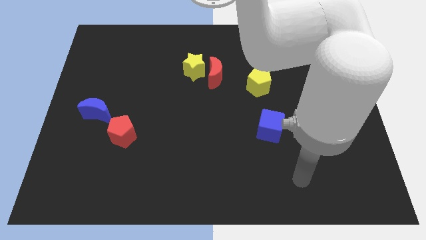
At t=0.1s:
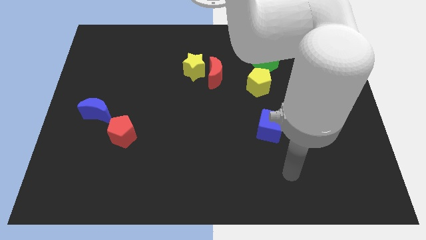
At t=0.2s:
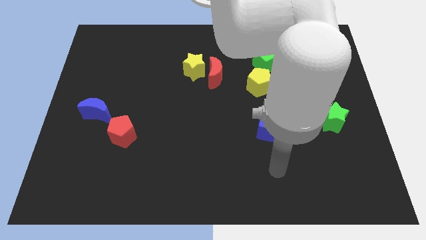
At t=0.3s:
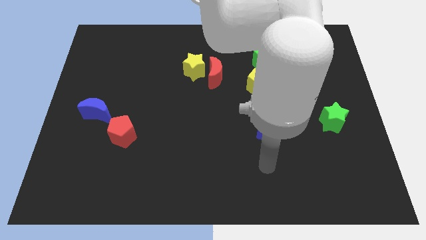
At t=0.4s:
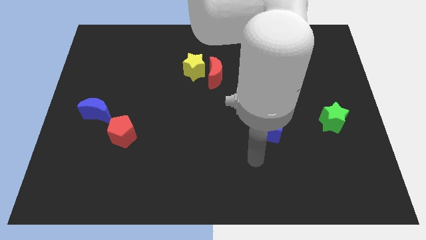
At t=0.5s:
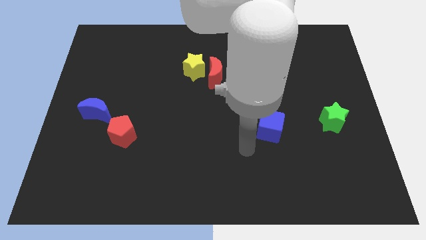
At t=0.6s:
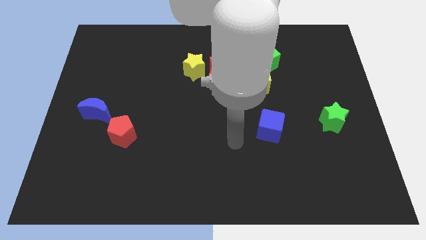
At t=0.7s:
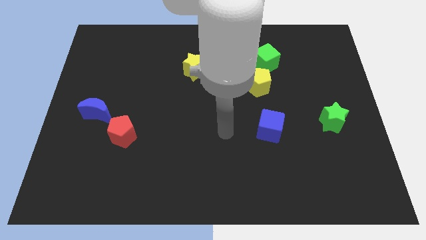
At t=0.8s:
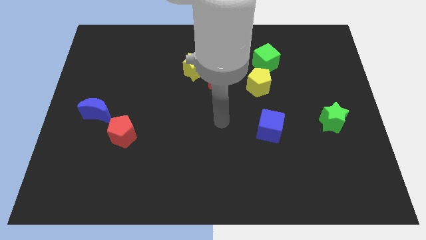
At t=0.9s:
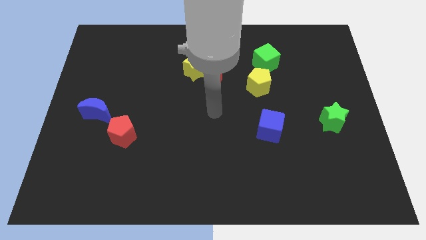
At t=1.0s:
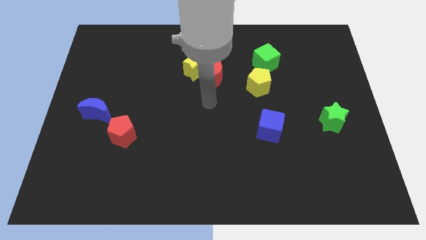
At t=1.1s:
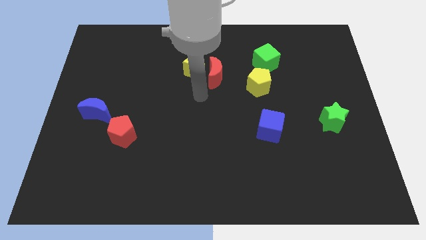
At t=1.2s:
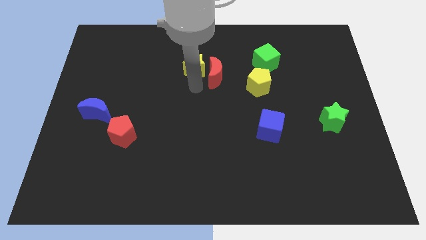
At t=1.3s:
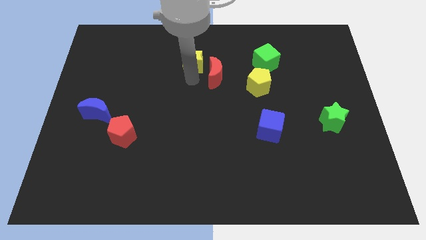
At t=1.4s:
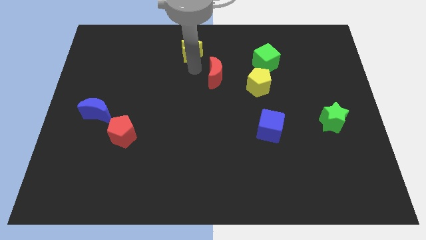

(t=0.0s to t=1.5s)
pull the red moon apart from the yellow star

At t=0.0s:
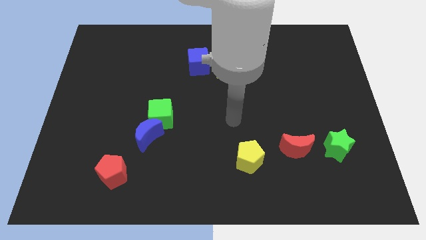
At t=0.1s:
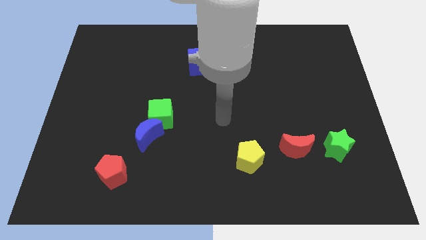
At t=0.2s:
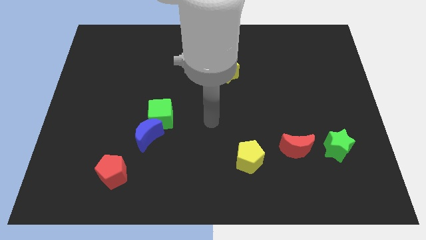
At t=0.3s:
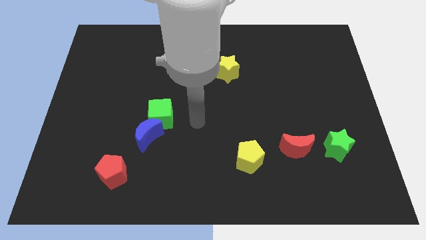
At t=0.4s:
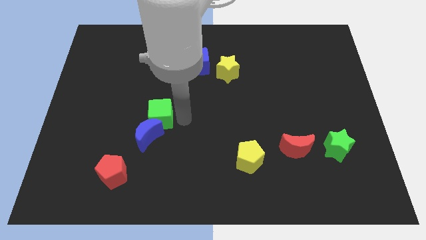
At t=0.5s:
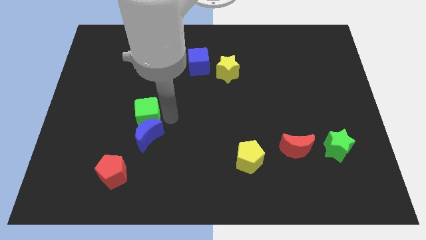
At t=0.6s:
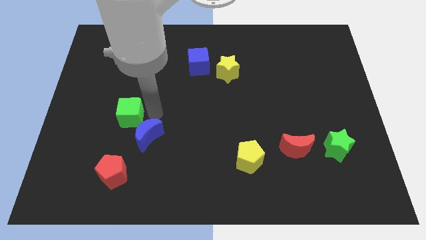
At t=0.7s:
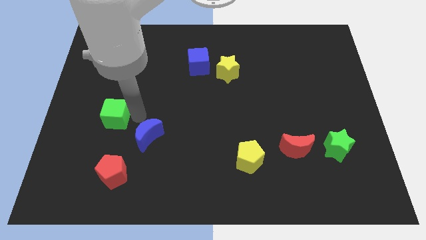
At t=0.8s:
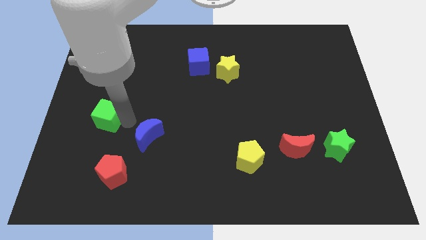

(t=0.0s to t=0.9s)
separate the blue moon from the green cube

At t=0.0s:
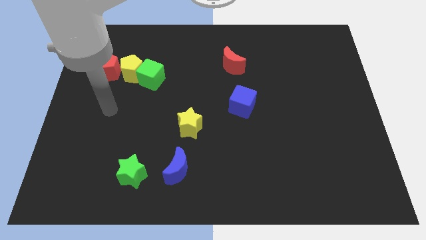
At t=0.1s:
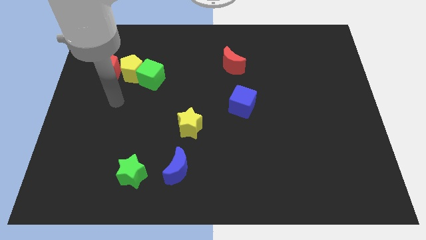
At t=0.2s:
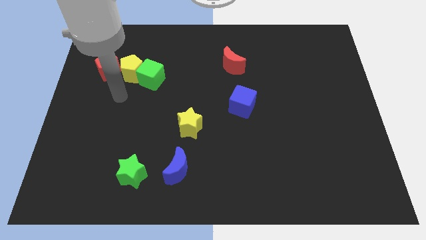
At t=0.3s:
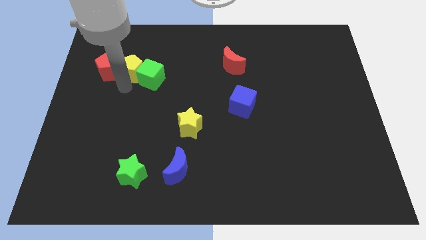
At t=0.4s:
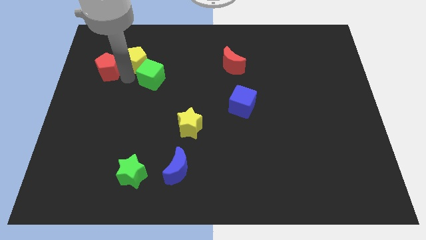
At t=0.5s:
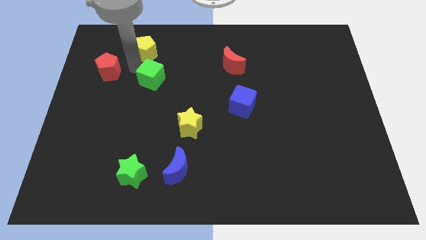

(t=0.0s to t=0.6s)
separate the green cube from the yellow pentagon

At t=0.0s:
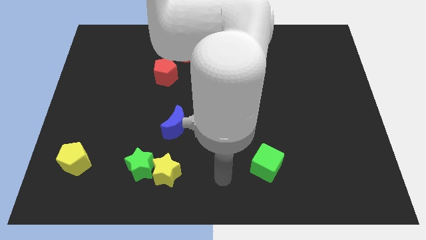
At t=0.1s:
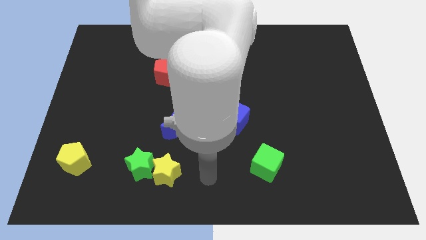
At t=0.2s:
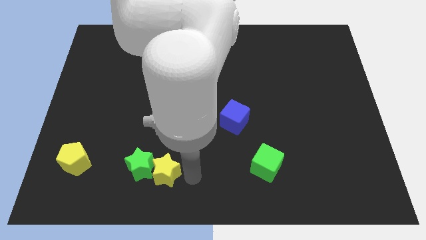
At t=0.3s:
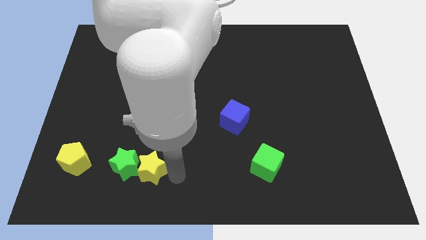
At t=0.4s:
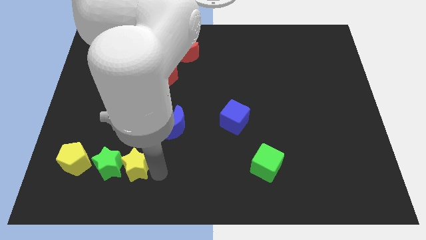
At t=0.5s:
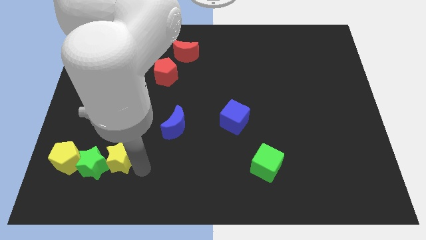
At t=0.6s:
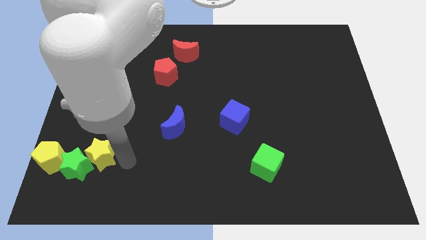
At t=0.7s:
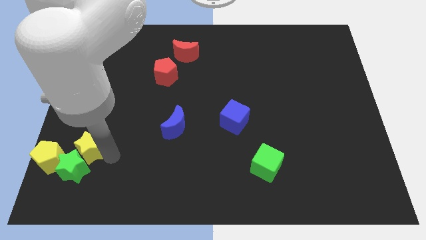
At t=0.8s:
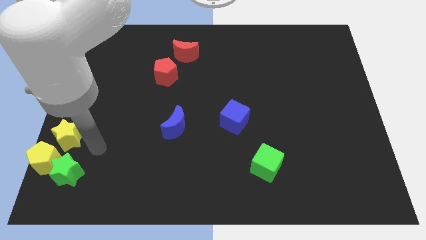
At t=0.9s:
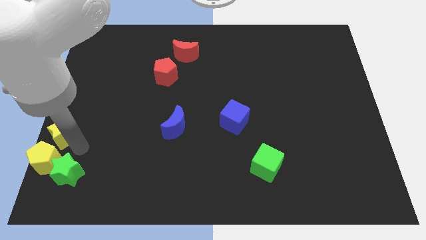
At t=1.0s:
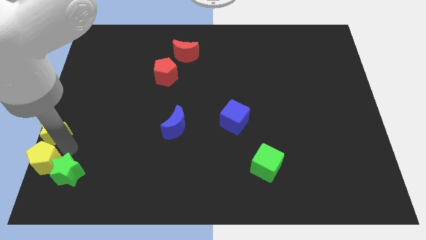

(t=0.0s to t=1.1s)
separate the green star from the yellow star

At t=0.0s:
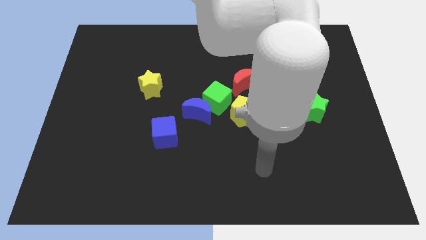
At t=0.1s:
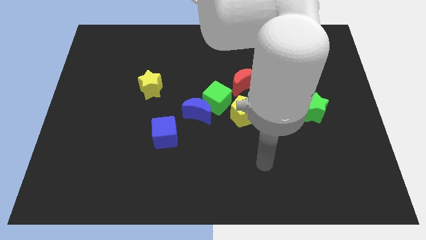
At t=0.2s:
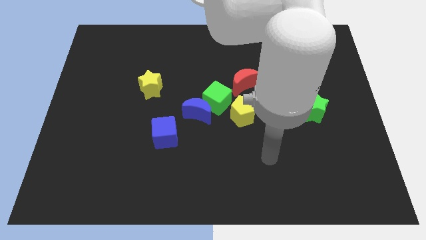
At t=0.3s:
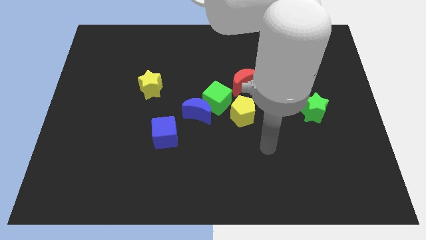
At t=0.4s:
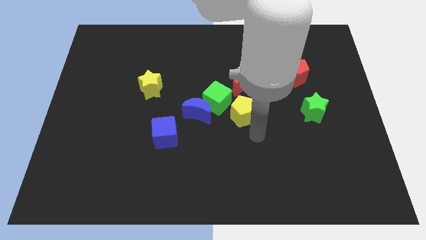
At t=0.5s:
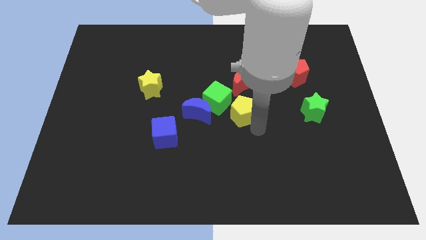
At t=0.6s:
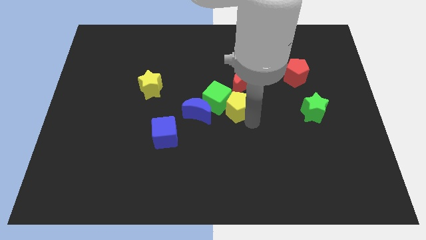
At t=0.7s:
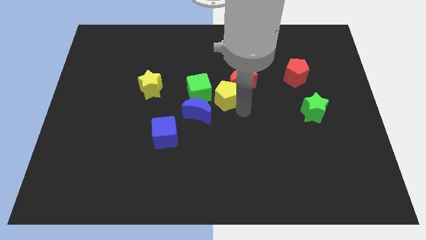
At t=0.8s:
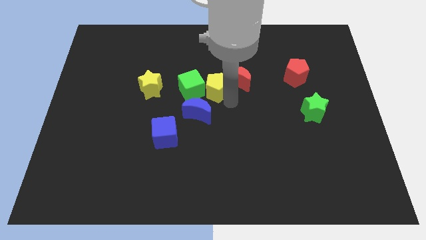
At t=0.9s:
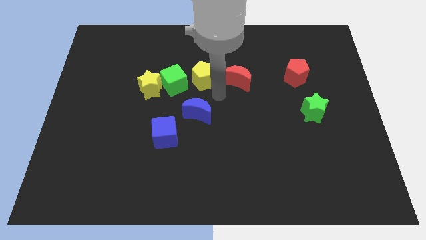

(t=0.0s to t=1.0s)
pull the green cube apart from the group

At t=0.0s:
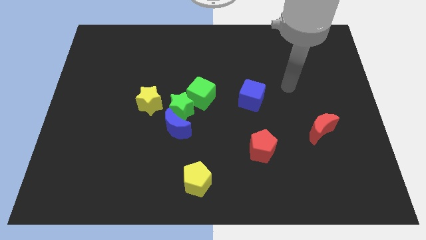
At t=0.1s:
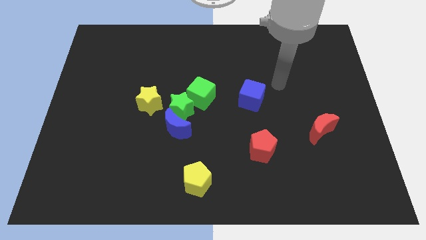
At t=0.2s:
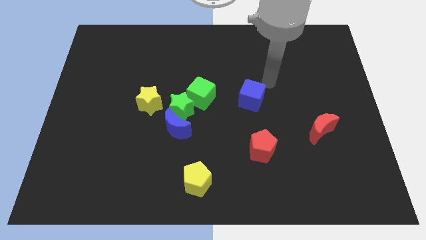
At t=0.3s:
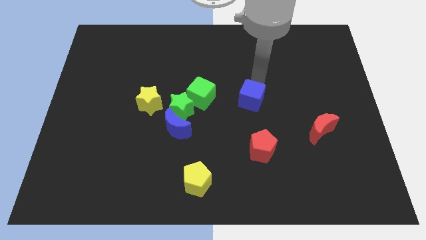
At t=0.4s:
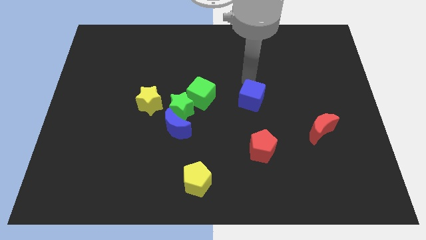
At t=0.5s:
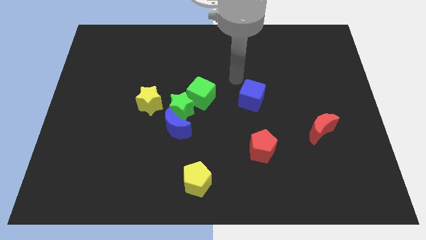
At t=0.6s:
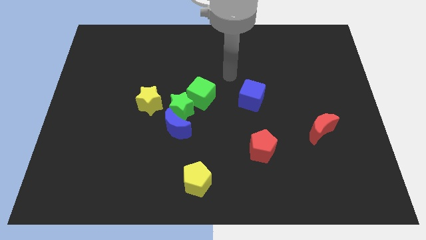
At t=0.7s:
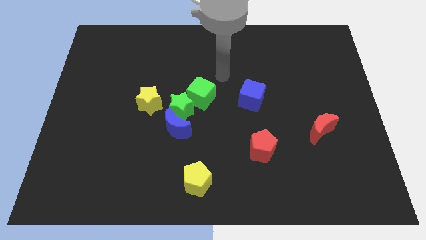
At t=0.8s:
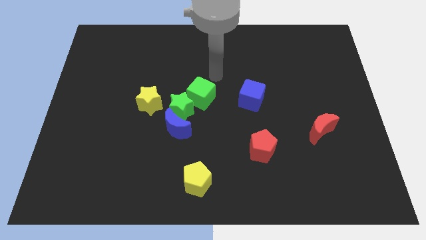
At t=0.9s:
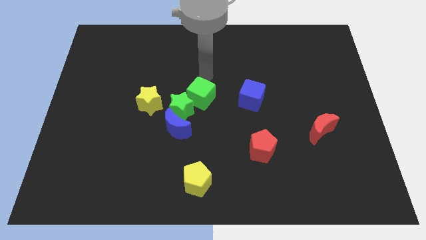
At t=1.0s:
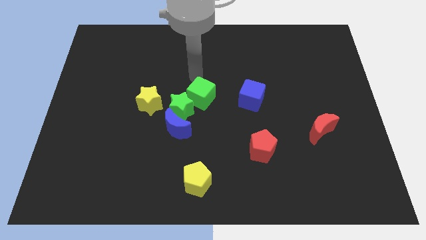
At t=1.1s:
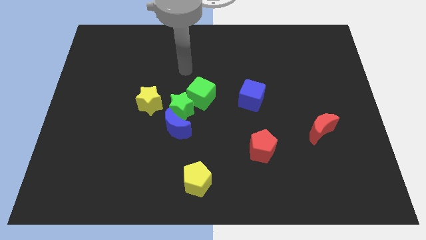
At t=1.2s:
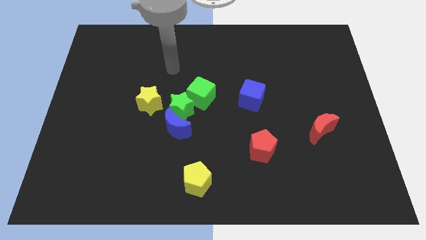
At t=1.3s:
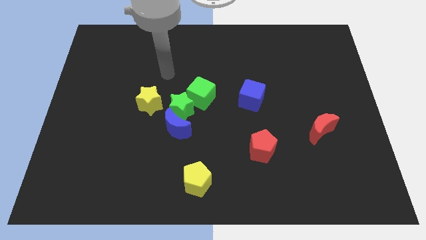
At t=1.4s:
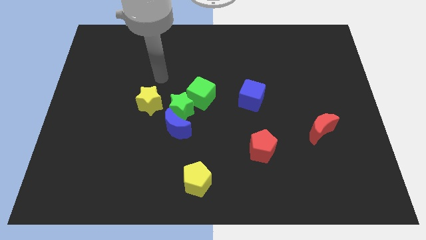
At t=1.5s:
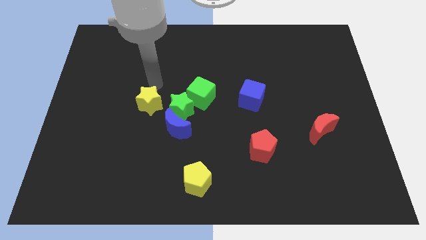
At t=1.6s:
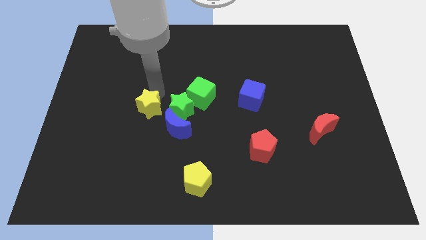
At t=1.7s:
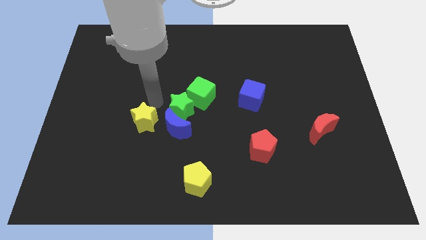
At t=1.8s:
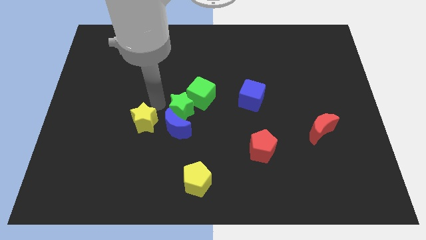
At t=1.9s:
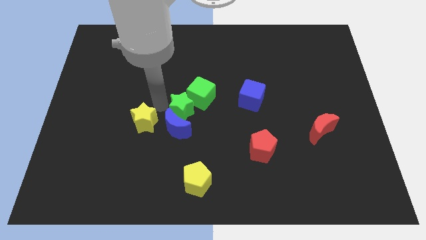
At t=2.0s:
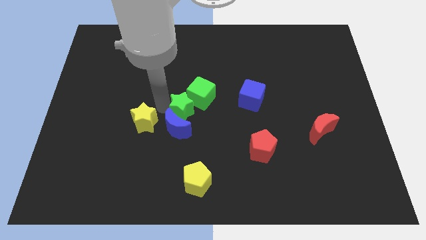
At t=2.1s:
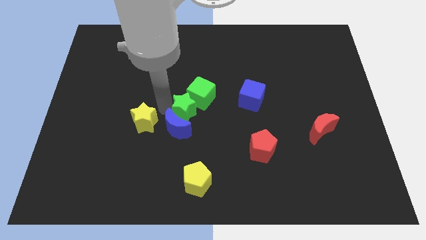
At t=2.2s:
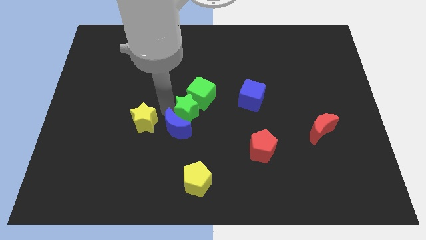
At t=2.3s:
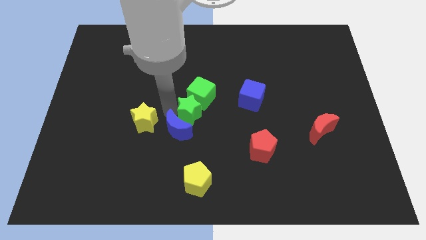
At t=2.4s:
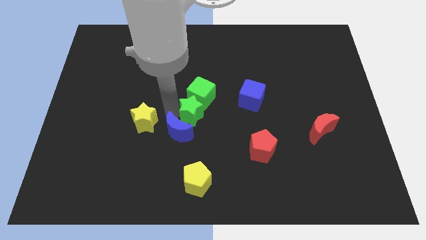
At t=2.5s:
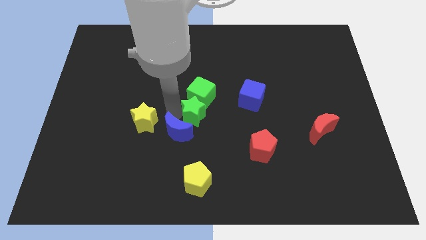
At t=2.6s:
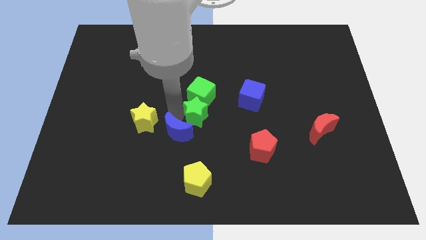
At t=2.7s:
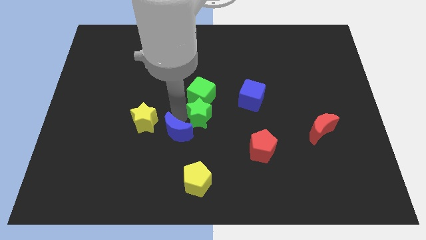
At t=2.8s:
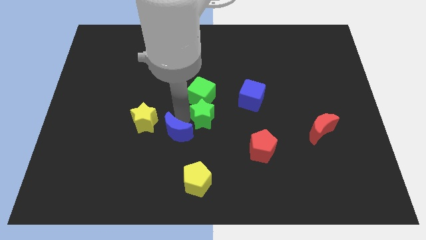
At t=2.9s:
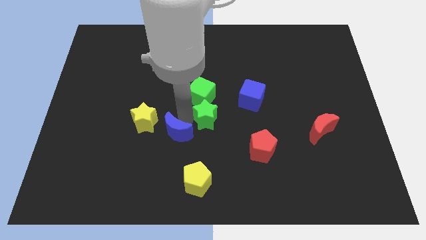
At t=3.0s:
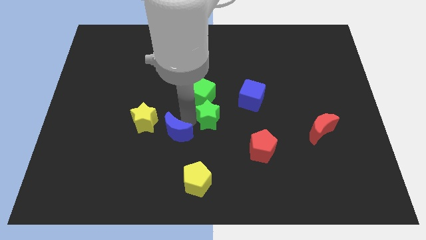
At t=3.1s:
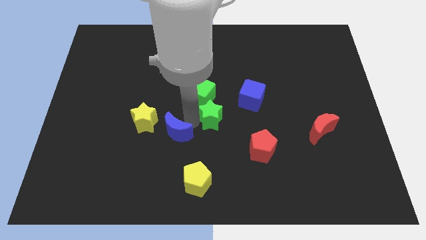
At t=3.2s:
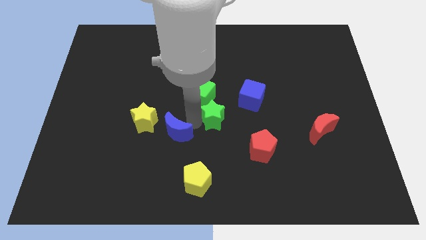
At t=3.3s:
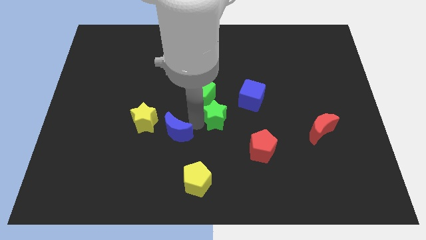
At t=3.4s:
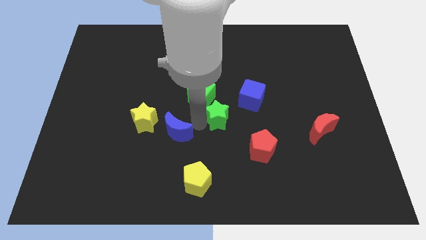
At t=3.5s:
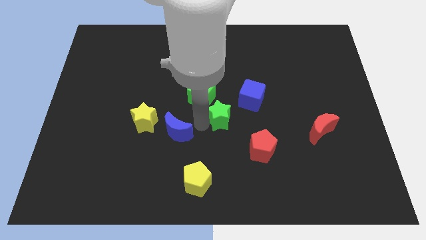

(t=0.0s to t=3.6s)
separate the green star from the group

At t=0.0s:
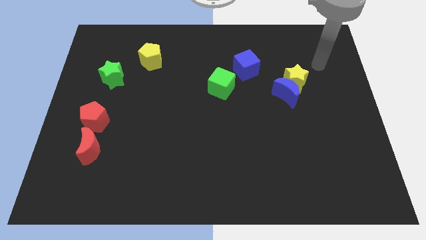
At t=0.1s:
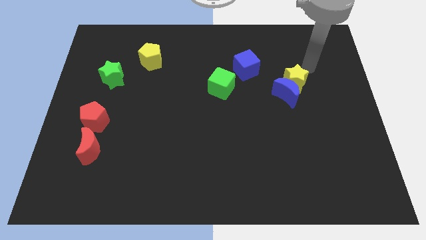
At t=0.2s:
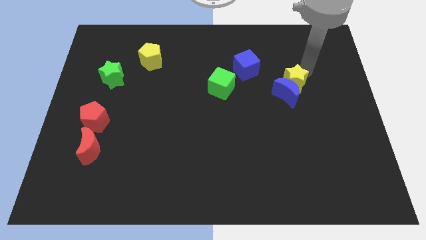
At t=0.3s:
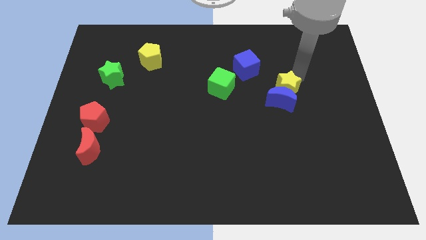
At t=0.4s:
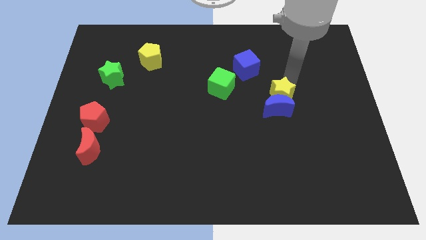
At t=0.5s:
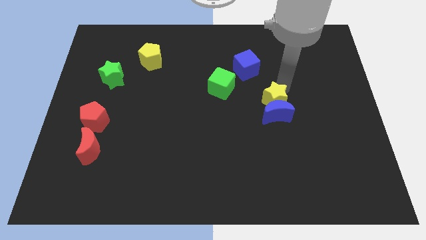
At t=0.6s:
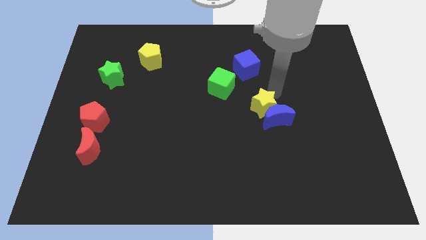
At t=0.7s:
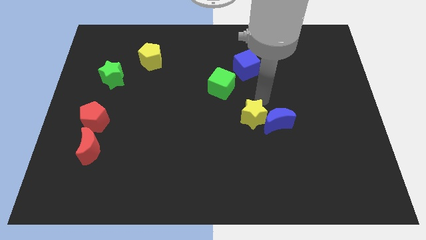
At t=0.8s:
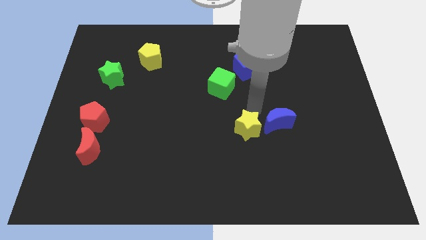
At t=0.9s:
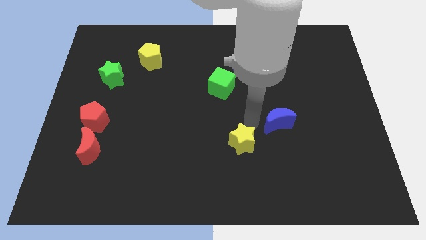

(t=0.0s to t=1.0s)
pull the blue moon apart from the yellow star
